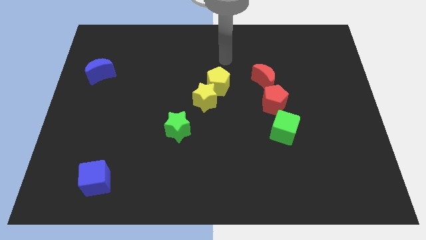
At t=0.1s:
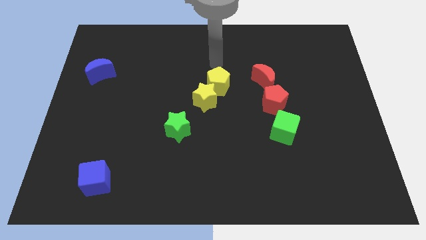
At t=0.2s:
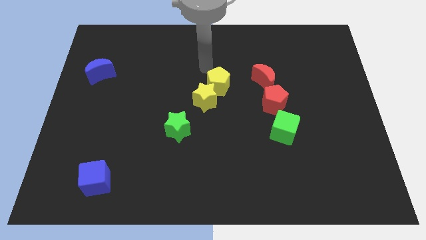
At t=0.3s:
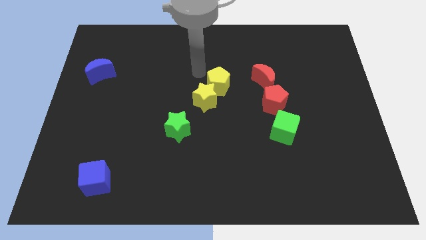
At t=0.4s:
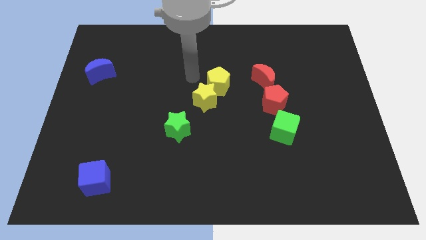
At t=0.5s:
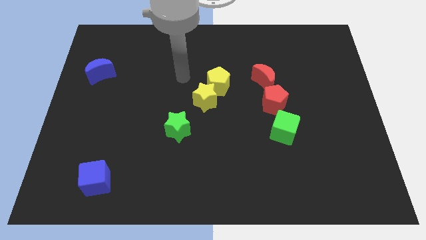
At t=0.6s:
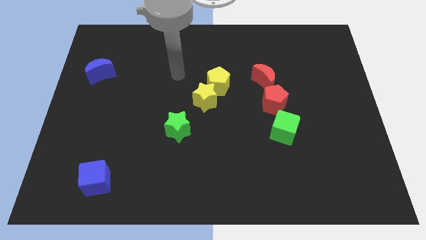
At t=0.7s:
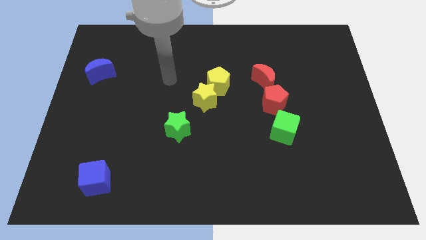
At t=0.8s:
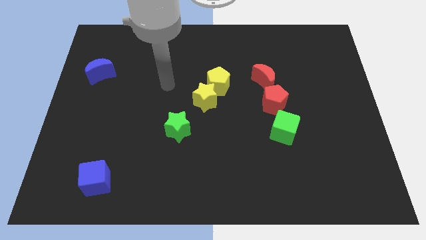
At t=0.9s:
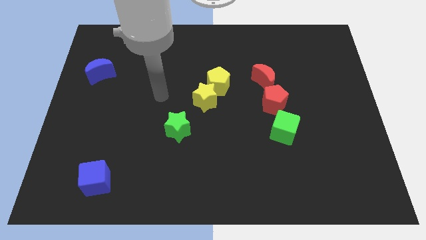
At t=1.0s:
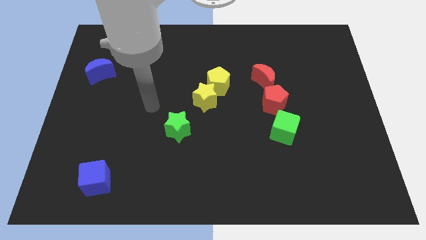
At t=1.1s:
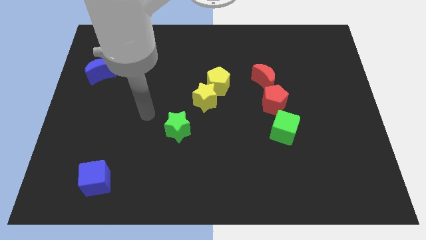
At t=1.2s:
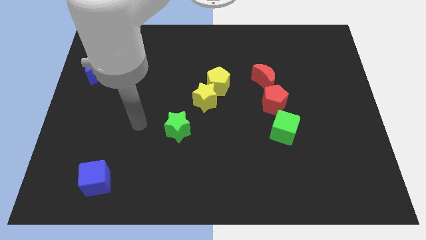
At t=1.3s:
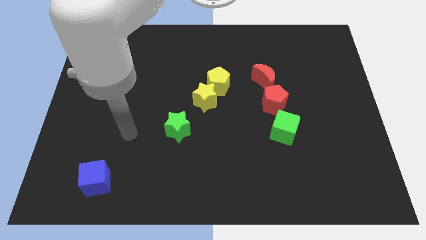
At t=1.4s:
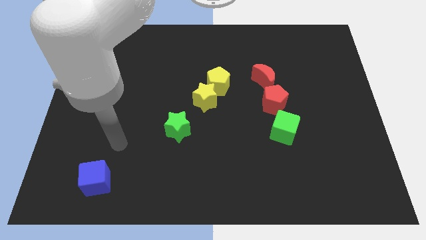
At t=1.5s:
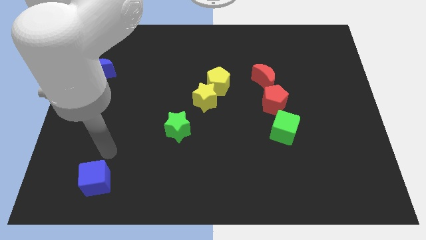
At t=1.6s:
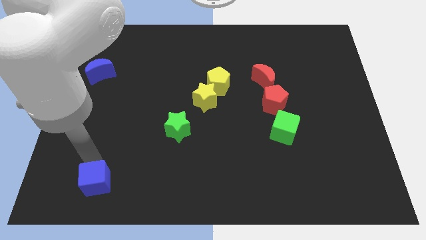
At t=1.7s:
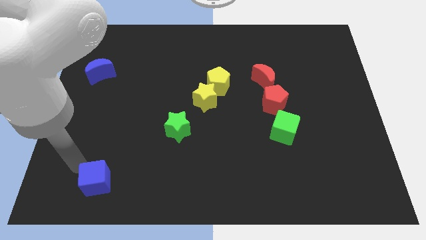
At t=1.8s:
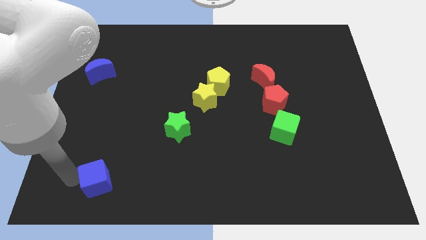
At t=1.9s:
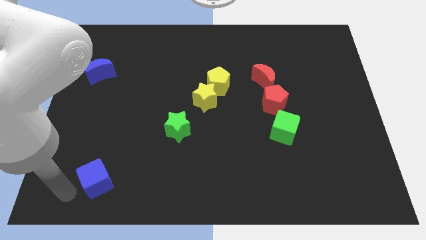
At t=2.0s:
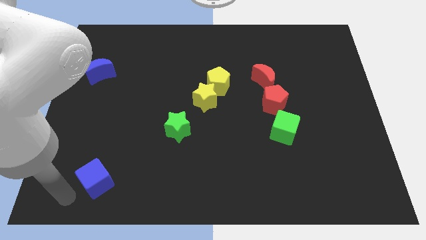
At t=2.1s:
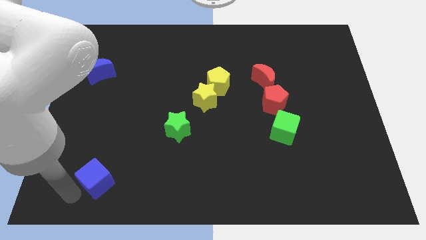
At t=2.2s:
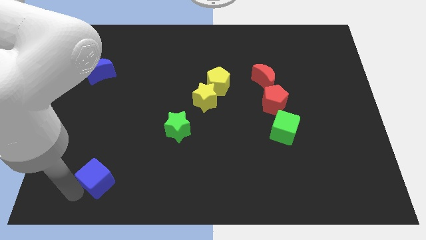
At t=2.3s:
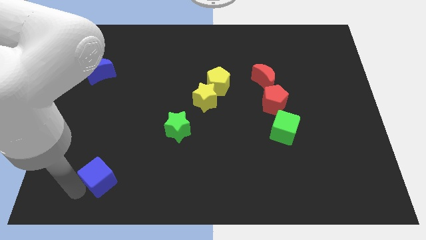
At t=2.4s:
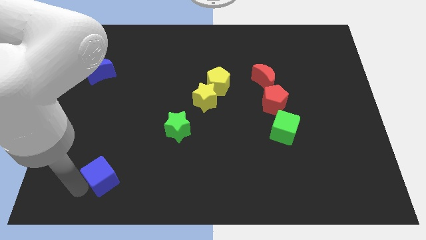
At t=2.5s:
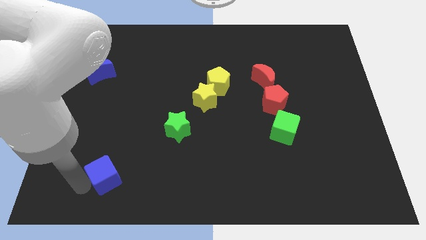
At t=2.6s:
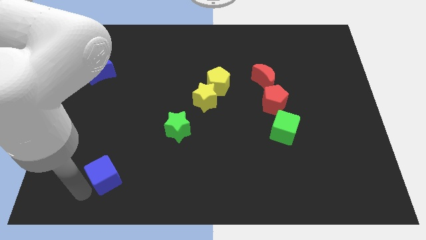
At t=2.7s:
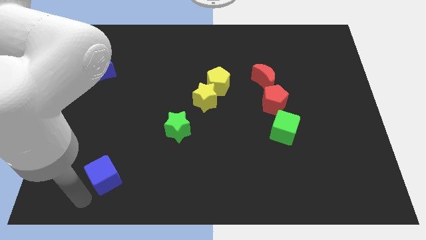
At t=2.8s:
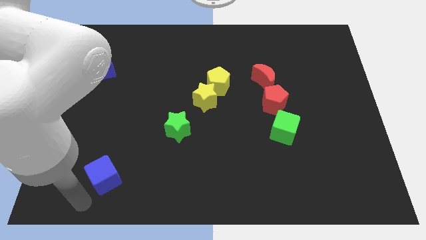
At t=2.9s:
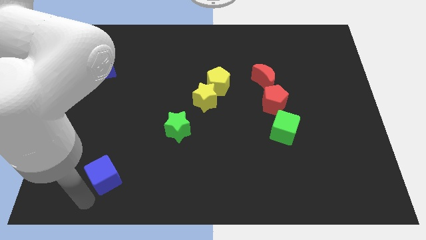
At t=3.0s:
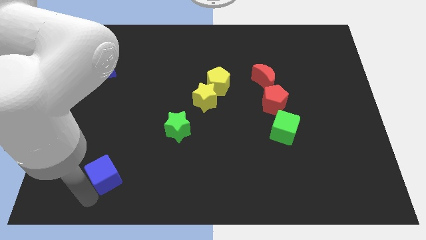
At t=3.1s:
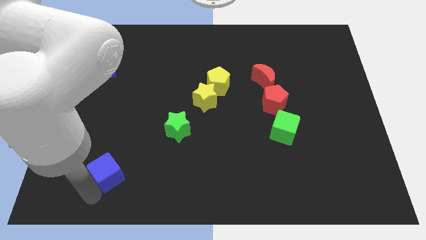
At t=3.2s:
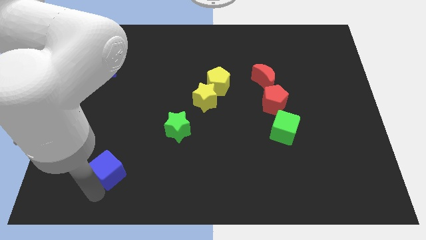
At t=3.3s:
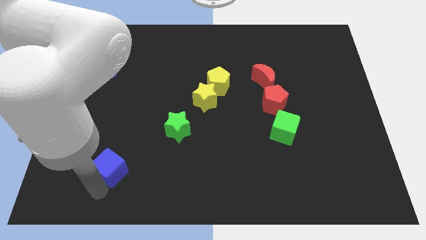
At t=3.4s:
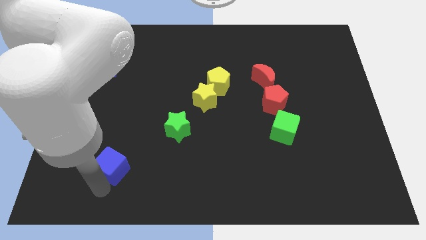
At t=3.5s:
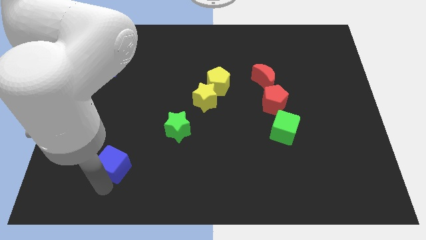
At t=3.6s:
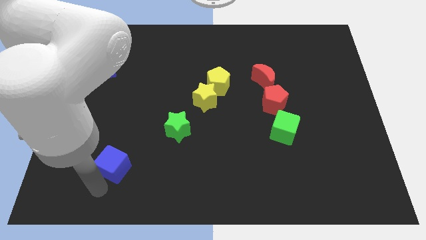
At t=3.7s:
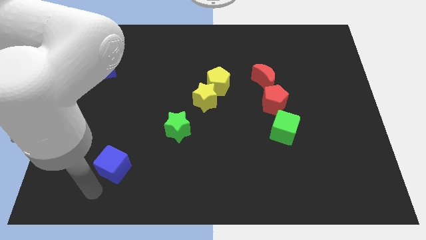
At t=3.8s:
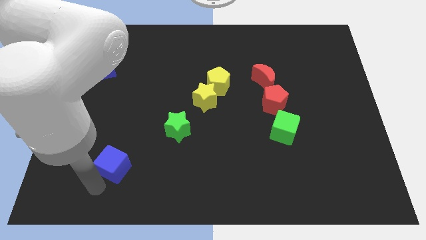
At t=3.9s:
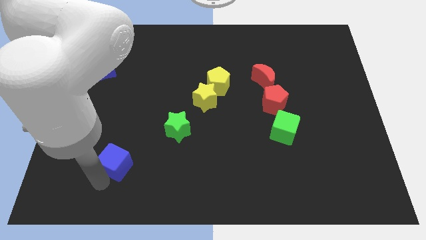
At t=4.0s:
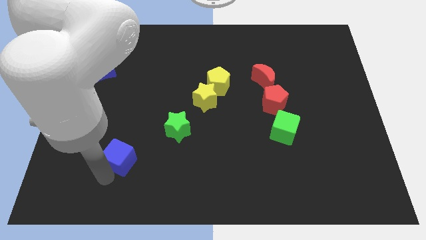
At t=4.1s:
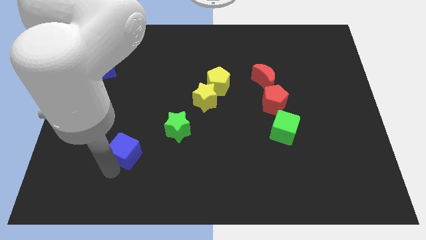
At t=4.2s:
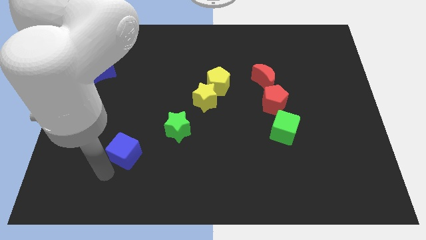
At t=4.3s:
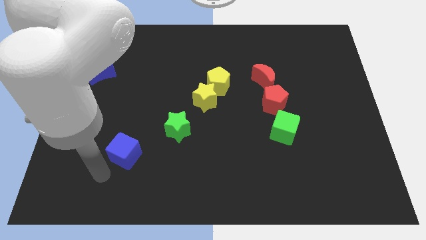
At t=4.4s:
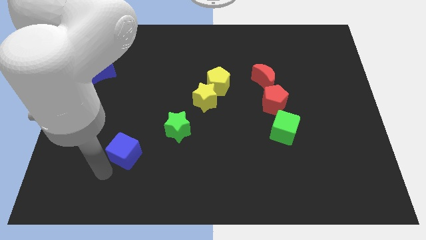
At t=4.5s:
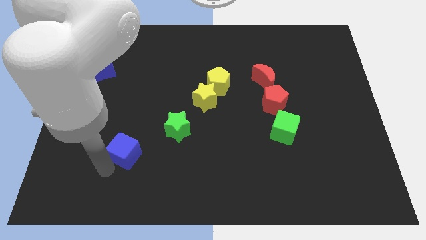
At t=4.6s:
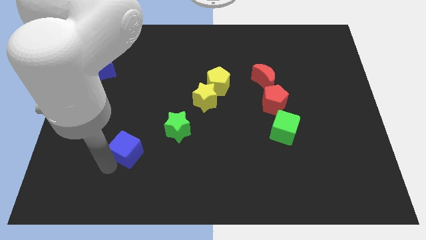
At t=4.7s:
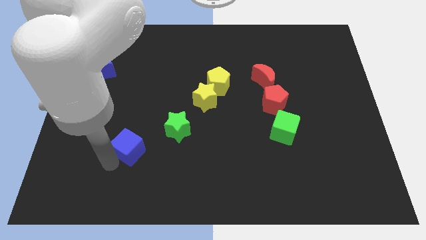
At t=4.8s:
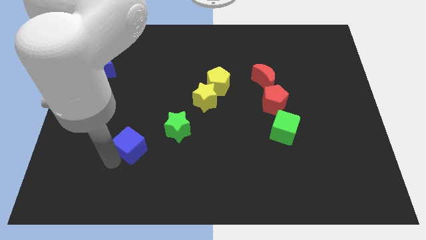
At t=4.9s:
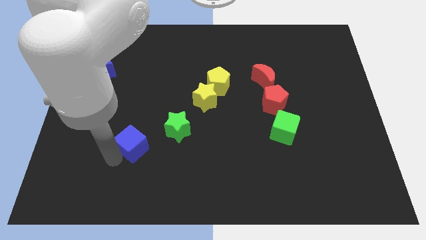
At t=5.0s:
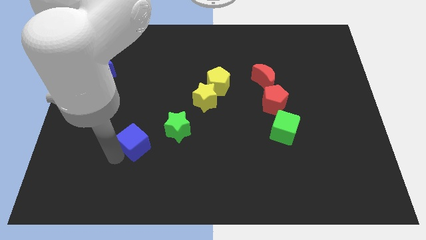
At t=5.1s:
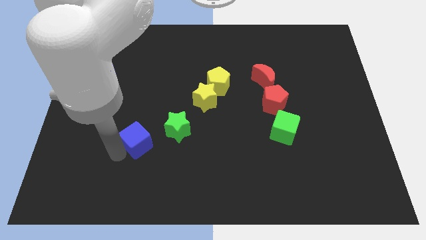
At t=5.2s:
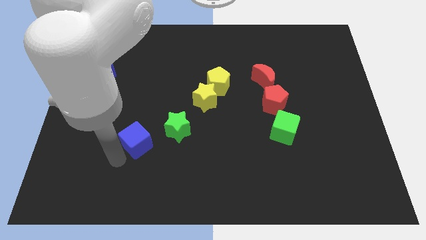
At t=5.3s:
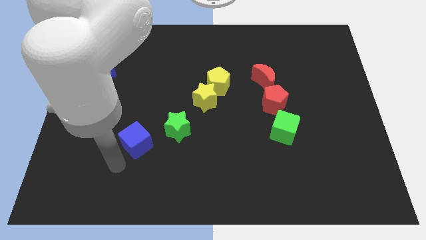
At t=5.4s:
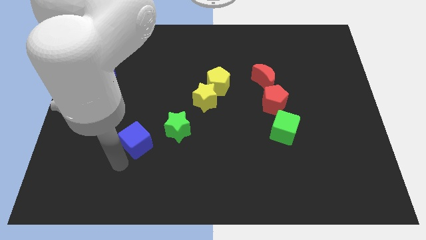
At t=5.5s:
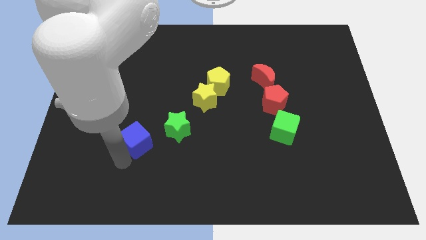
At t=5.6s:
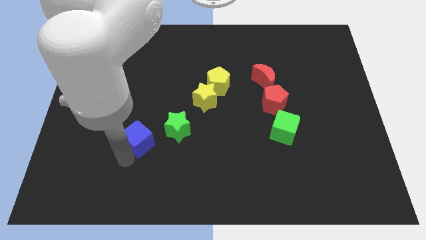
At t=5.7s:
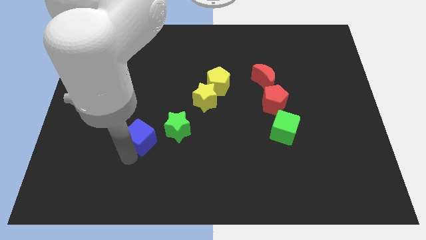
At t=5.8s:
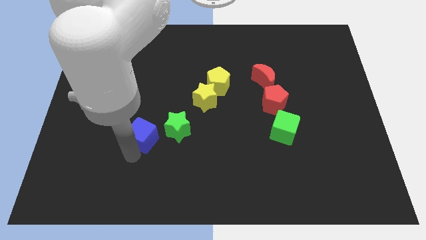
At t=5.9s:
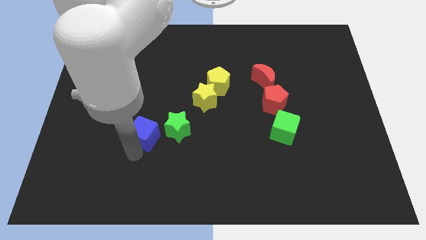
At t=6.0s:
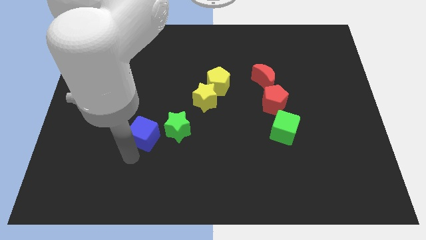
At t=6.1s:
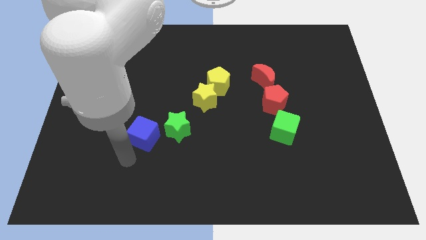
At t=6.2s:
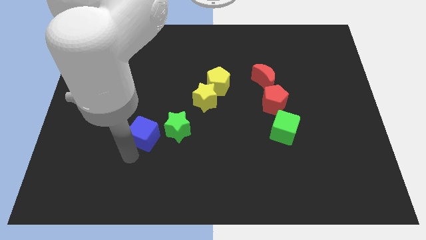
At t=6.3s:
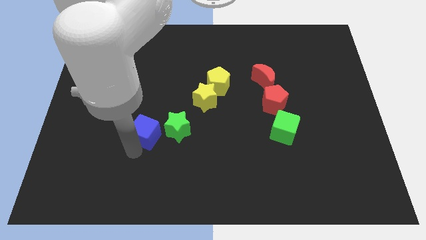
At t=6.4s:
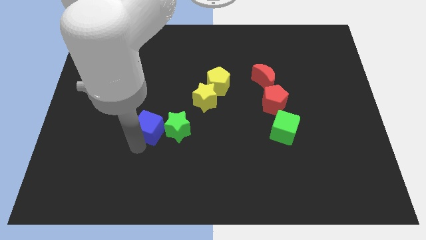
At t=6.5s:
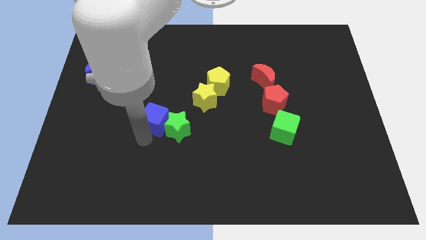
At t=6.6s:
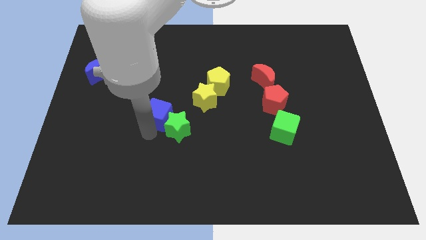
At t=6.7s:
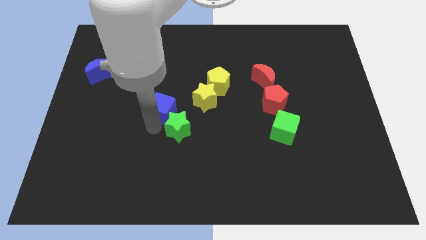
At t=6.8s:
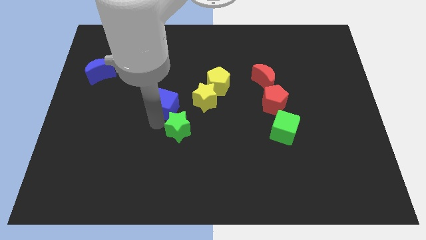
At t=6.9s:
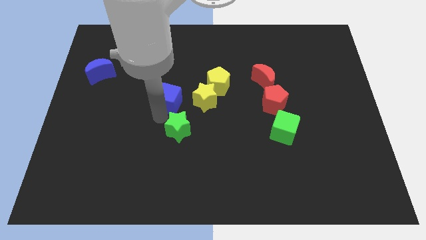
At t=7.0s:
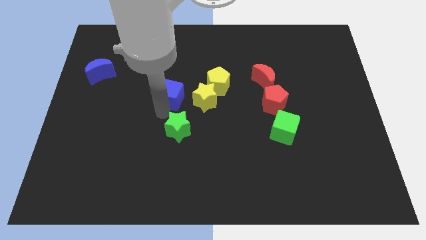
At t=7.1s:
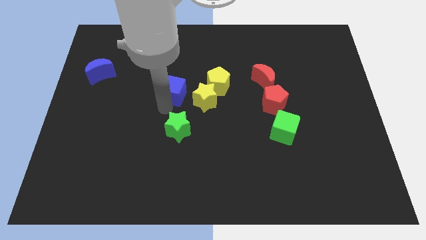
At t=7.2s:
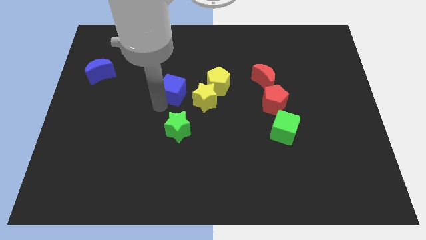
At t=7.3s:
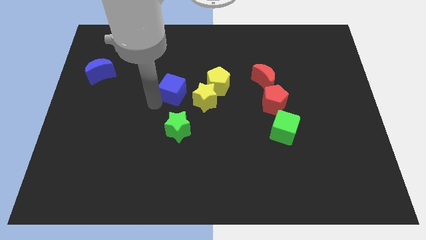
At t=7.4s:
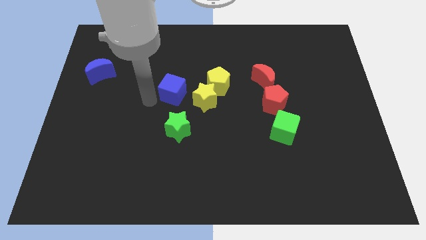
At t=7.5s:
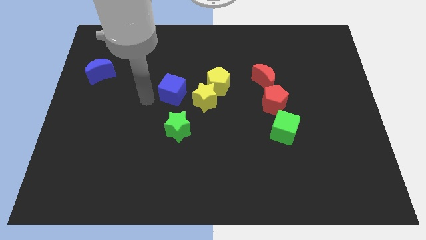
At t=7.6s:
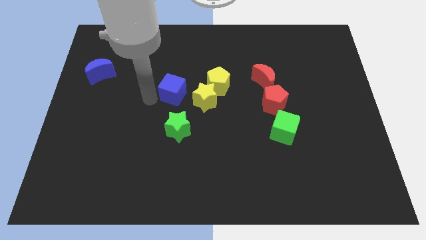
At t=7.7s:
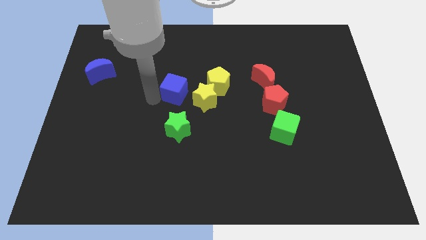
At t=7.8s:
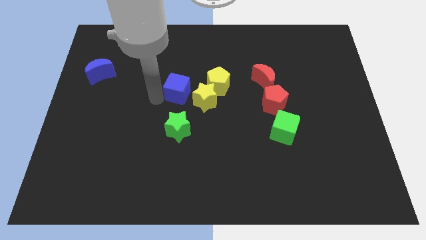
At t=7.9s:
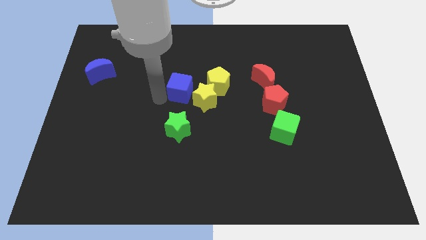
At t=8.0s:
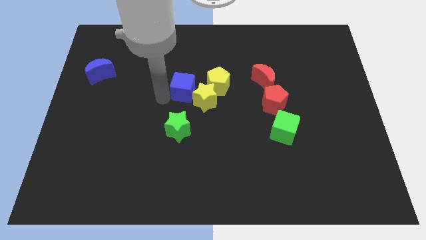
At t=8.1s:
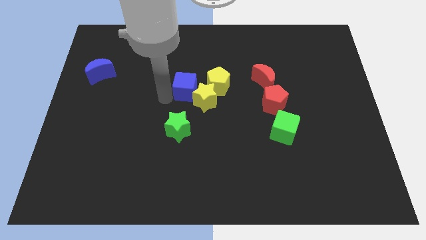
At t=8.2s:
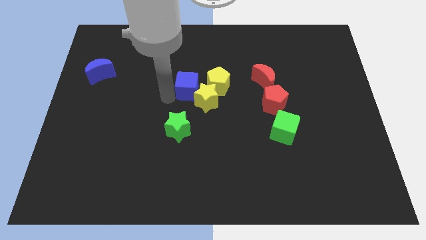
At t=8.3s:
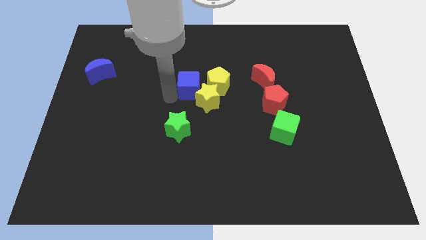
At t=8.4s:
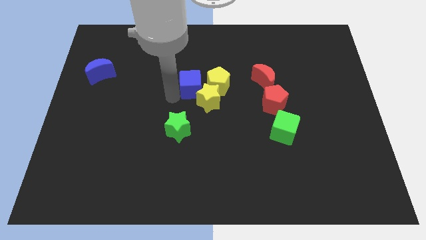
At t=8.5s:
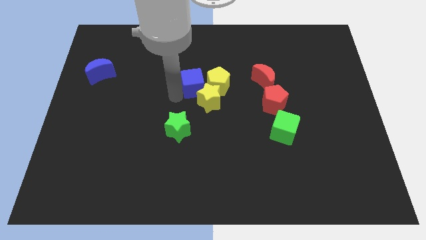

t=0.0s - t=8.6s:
move the blue cube close to the yellow pentagon
